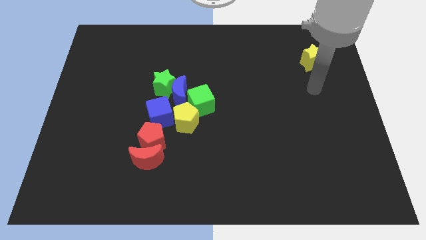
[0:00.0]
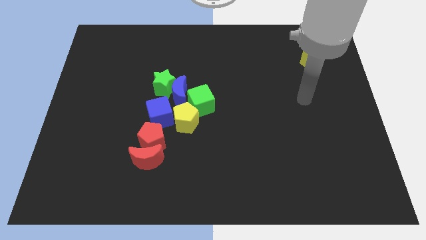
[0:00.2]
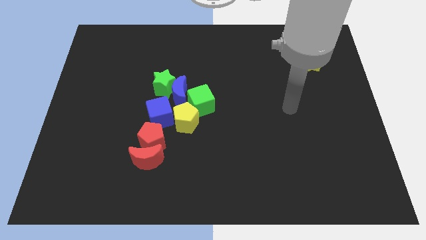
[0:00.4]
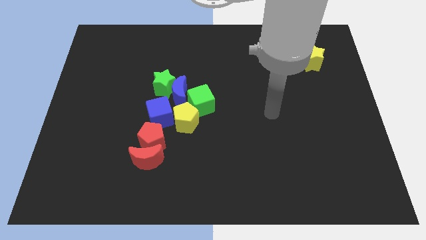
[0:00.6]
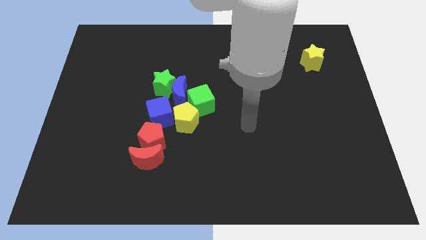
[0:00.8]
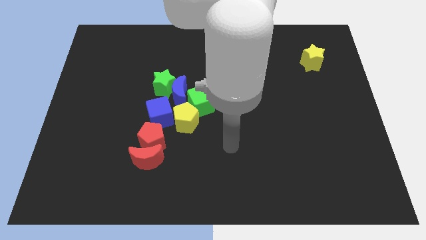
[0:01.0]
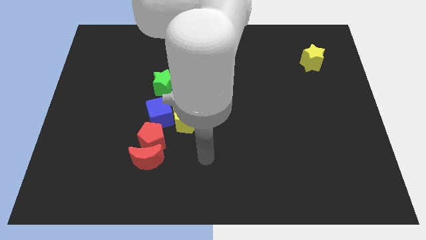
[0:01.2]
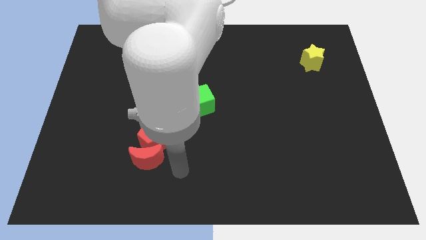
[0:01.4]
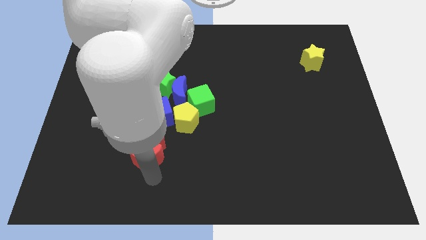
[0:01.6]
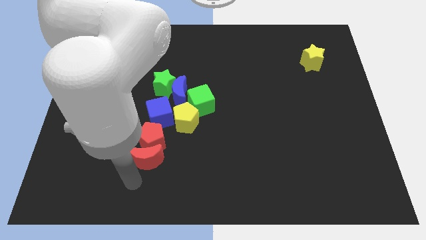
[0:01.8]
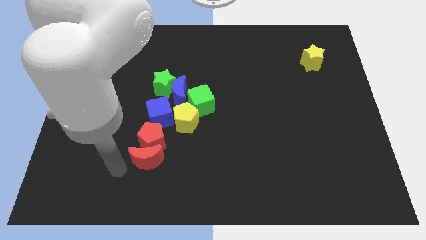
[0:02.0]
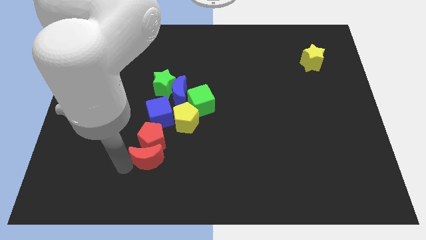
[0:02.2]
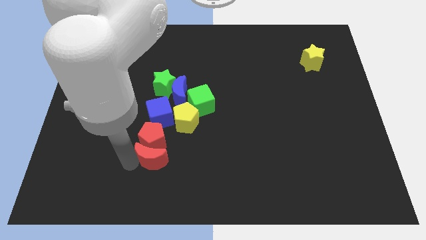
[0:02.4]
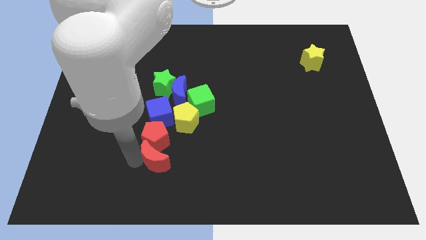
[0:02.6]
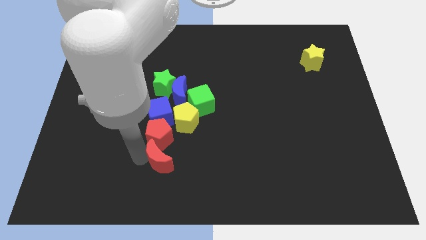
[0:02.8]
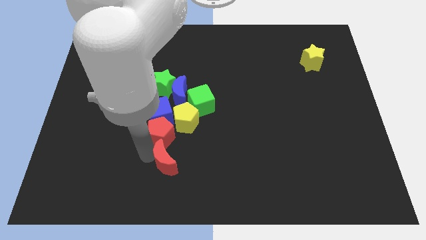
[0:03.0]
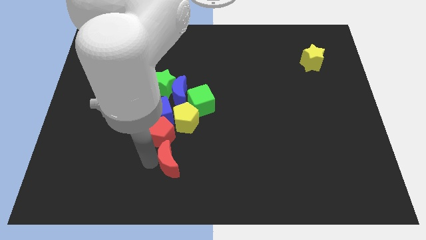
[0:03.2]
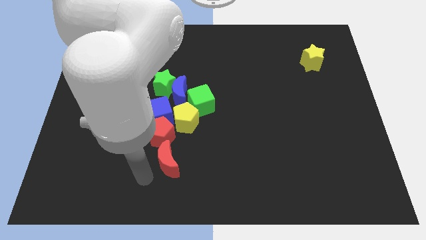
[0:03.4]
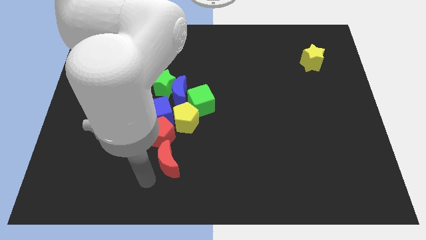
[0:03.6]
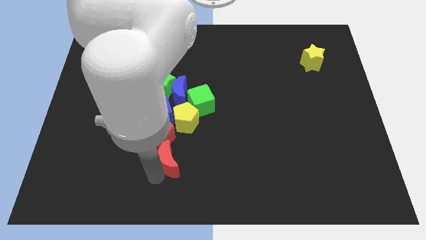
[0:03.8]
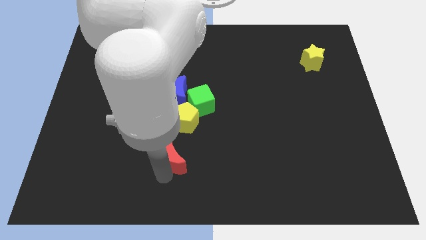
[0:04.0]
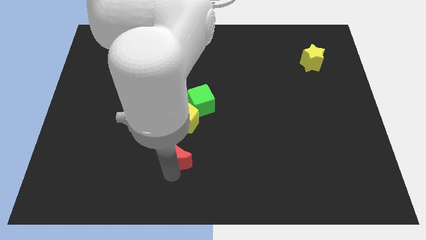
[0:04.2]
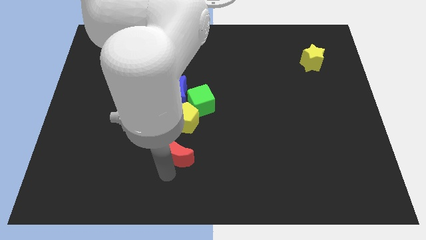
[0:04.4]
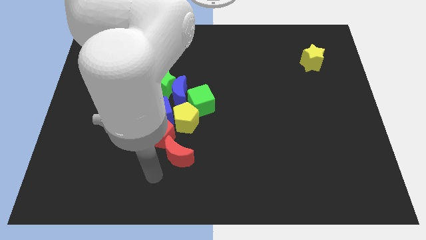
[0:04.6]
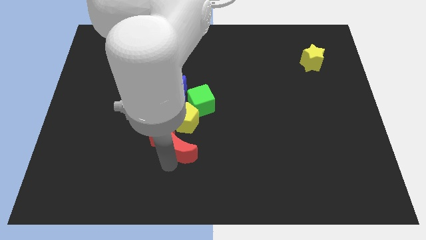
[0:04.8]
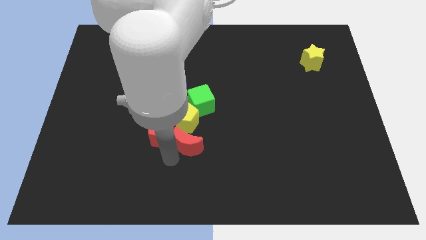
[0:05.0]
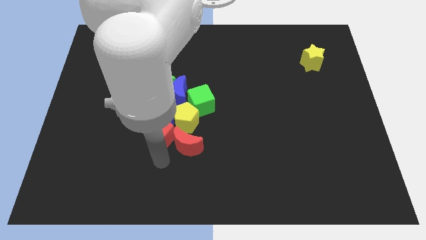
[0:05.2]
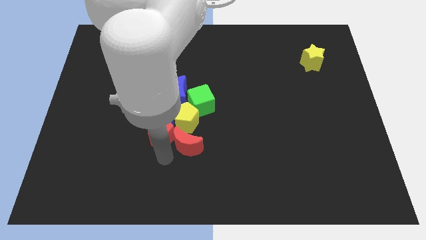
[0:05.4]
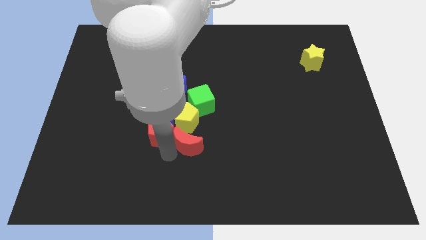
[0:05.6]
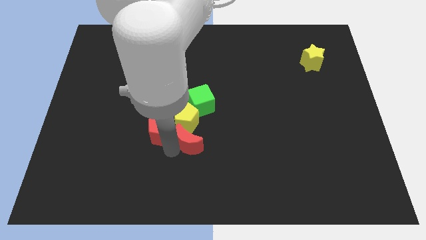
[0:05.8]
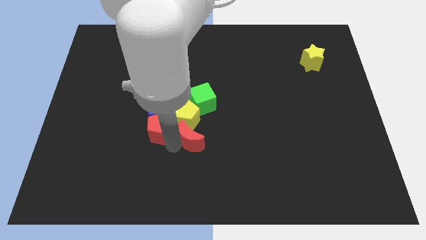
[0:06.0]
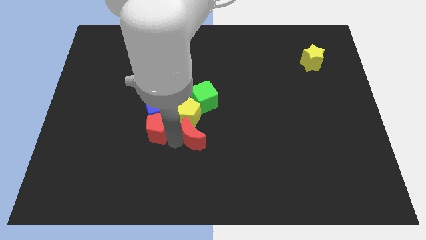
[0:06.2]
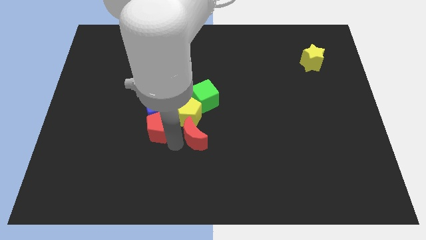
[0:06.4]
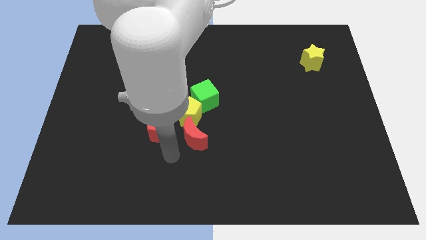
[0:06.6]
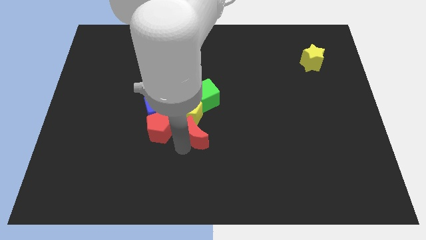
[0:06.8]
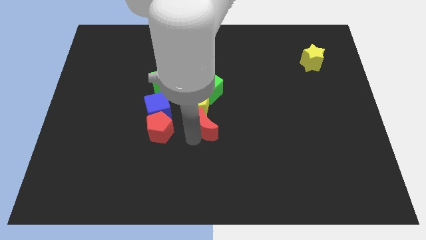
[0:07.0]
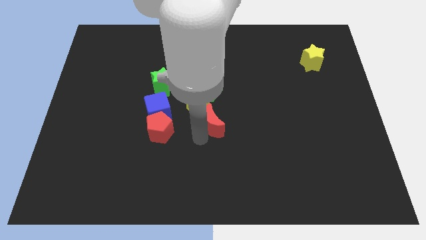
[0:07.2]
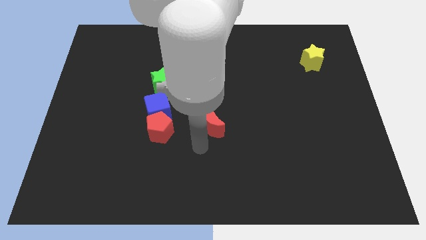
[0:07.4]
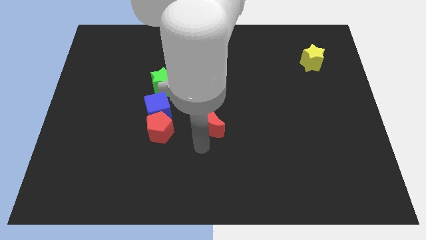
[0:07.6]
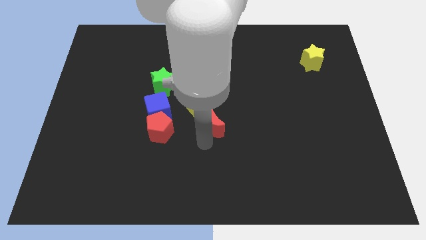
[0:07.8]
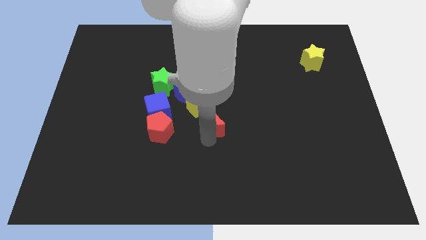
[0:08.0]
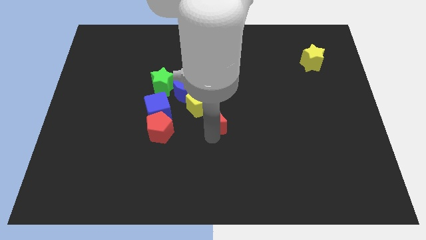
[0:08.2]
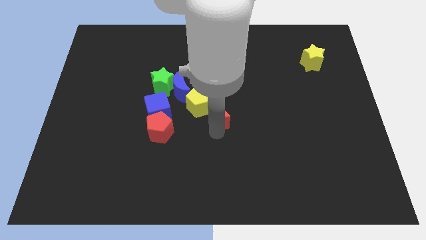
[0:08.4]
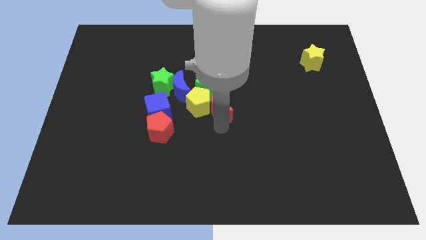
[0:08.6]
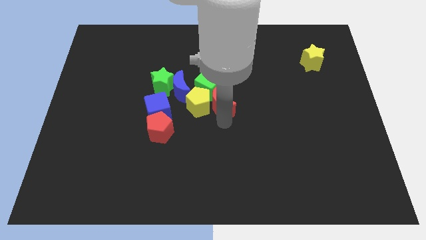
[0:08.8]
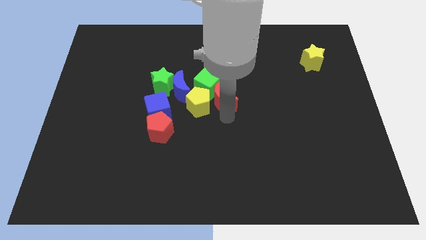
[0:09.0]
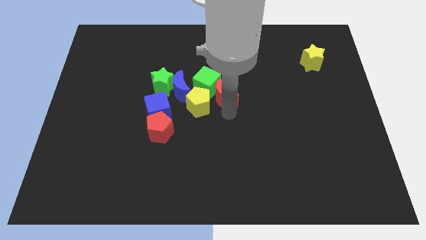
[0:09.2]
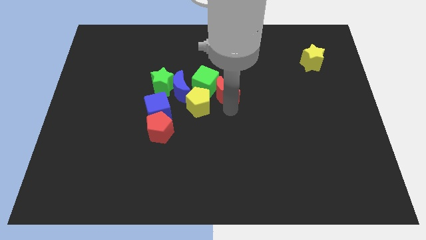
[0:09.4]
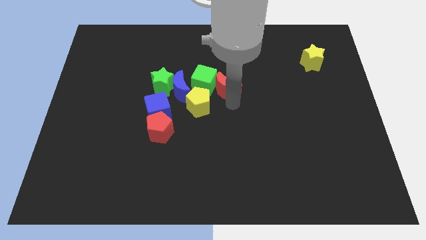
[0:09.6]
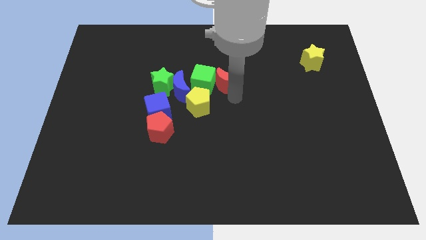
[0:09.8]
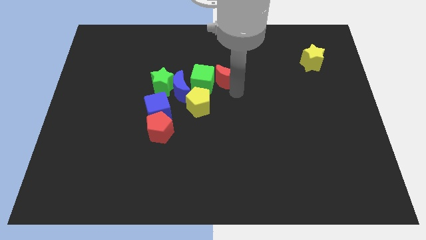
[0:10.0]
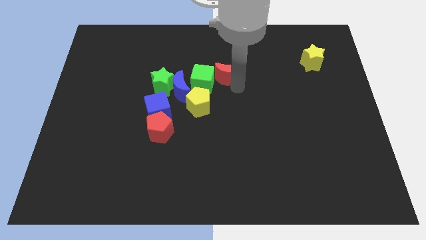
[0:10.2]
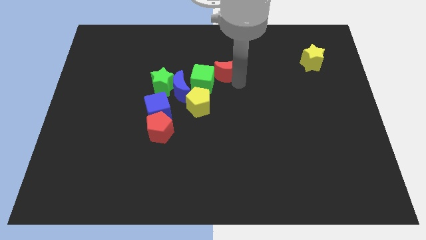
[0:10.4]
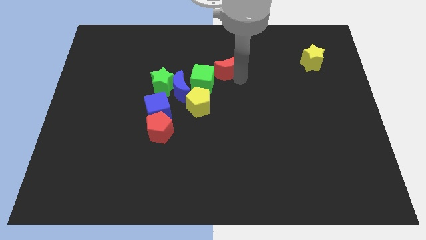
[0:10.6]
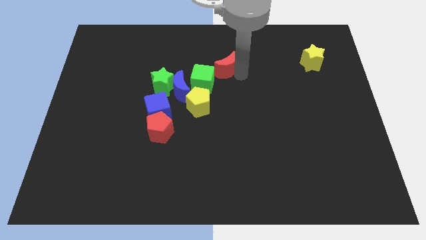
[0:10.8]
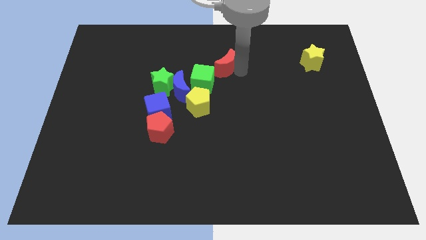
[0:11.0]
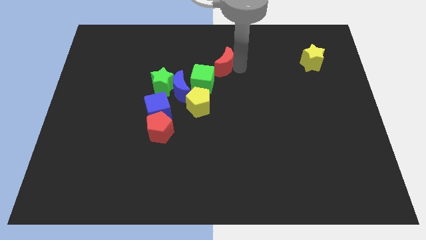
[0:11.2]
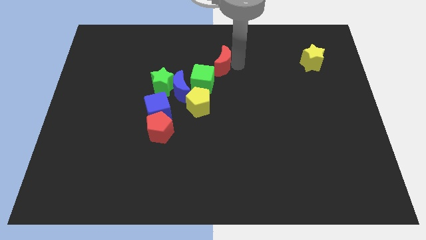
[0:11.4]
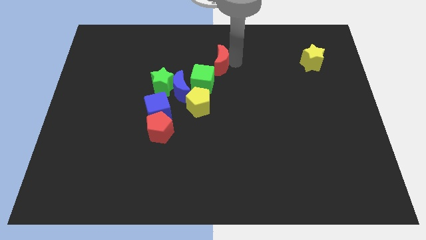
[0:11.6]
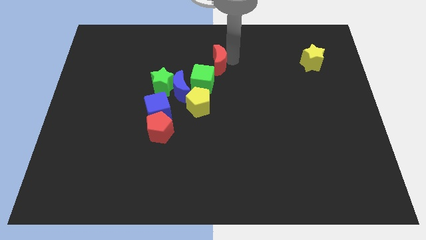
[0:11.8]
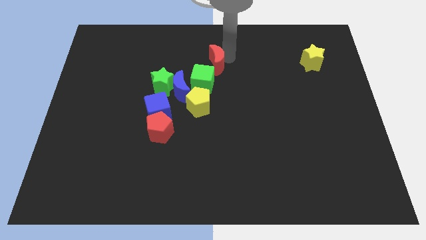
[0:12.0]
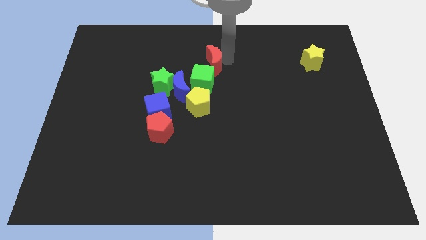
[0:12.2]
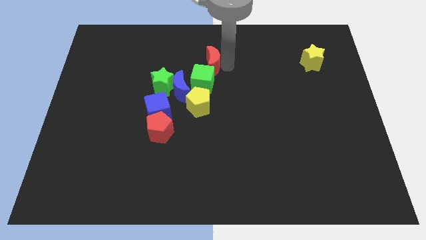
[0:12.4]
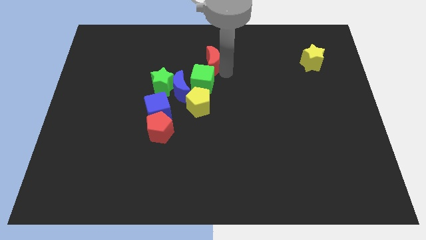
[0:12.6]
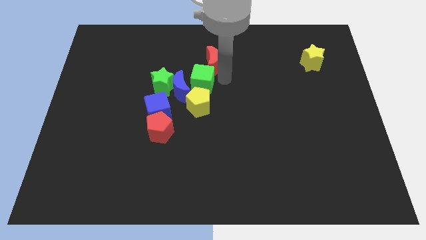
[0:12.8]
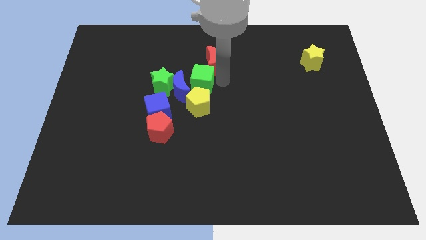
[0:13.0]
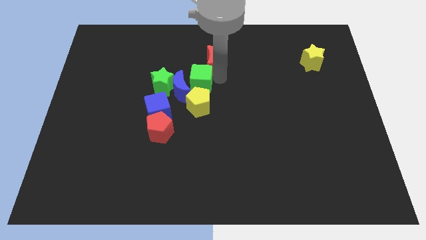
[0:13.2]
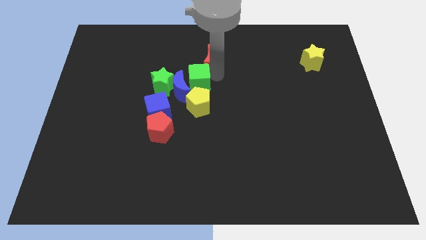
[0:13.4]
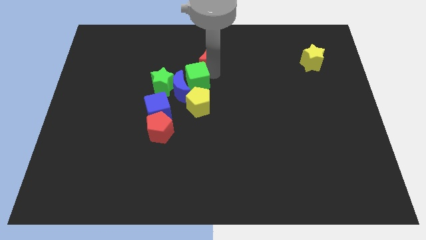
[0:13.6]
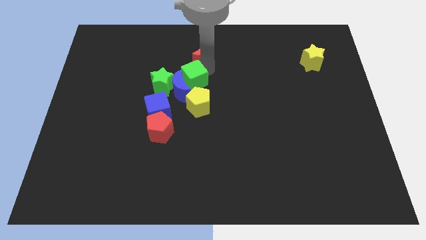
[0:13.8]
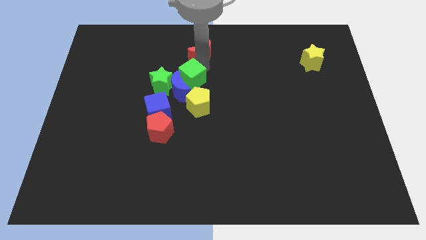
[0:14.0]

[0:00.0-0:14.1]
put the red moon to the top side
